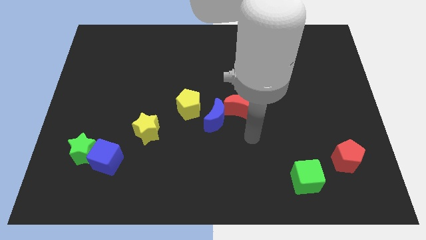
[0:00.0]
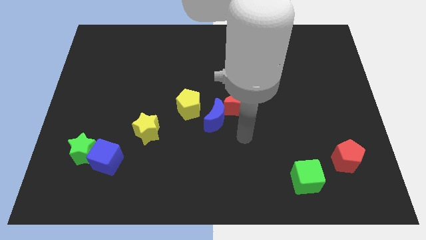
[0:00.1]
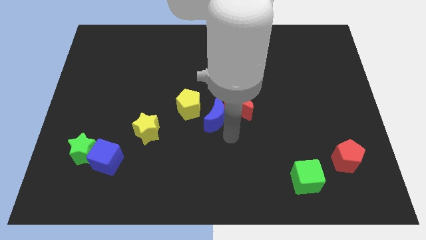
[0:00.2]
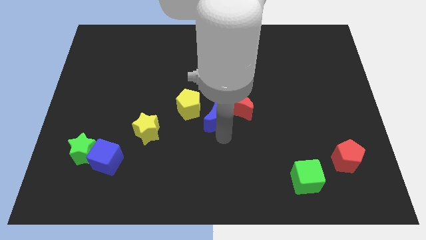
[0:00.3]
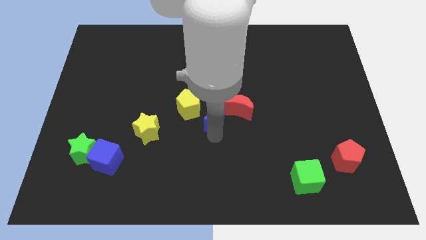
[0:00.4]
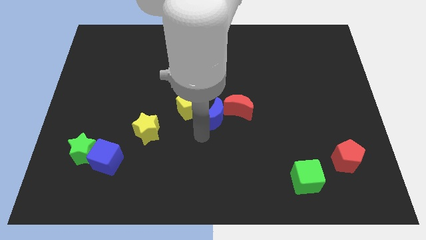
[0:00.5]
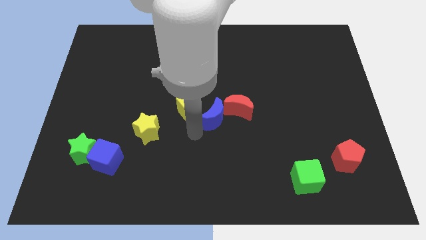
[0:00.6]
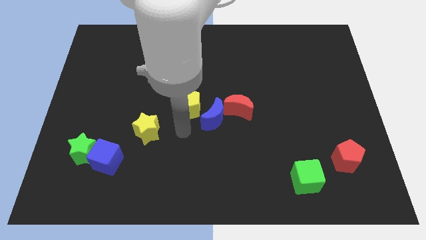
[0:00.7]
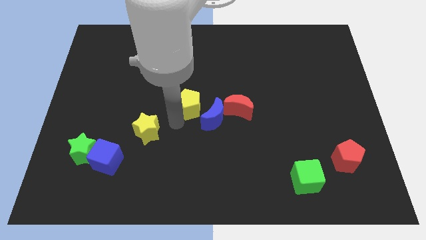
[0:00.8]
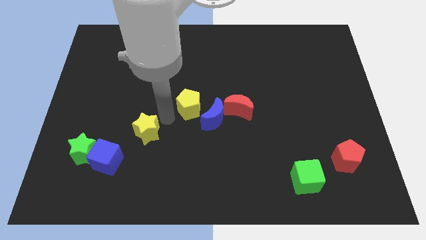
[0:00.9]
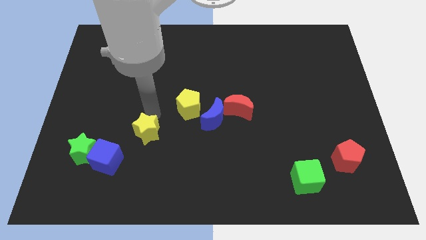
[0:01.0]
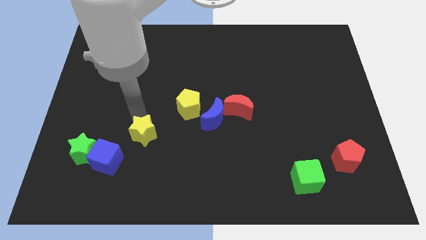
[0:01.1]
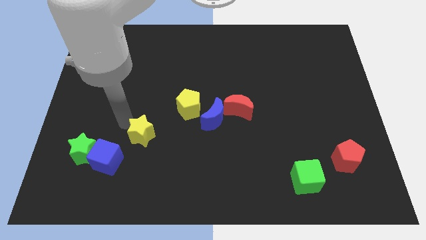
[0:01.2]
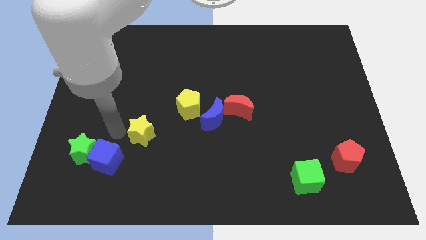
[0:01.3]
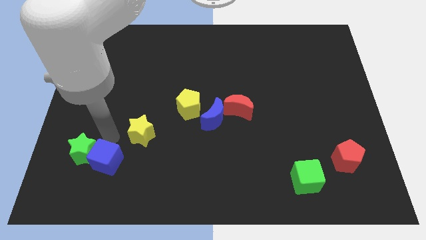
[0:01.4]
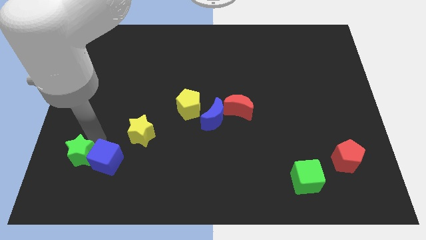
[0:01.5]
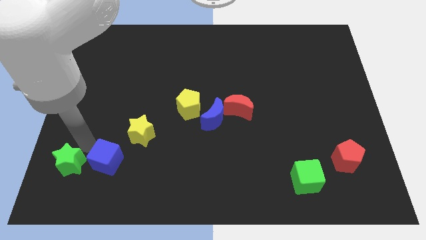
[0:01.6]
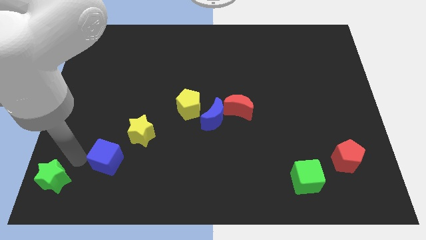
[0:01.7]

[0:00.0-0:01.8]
pull the blue cube apart from the green star

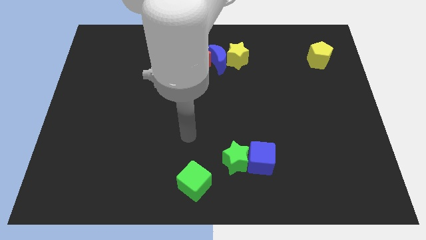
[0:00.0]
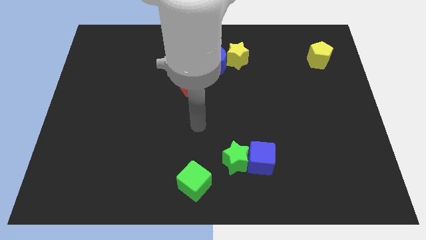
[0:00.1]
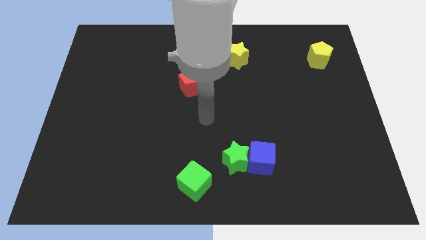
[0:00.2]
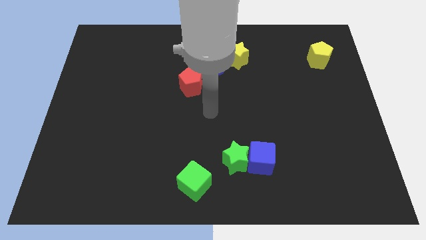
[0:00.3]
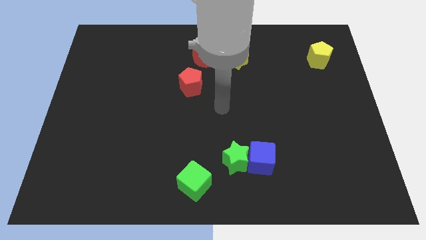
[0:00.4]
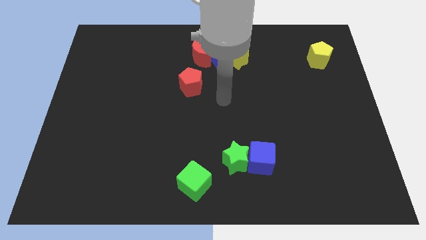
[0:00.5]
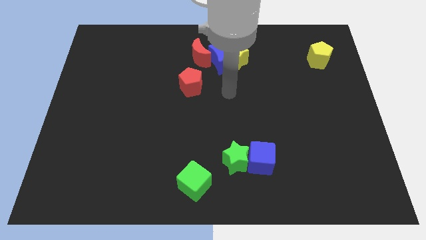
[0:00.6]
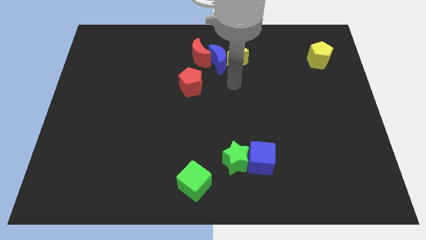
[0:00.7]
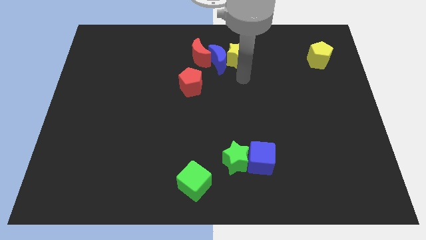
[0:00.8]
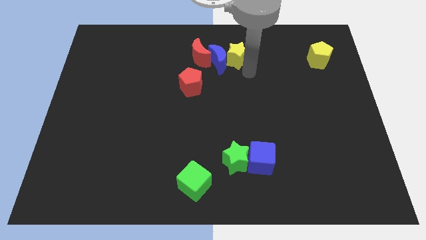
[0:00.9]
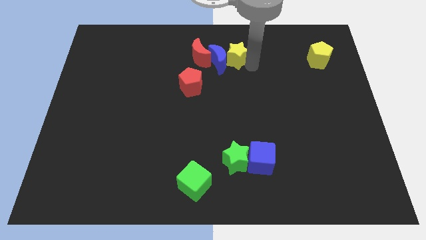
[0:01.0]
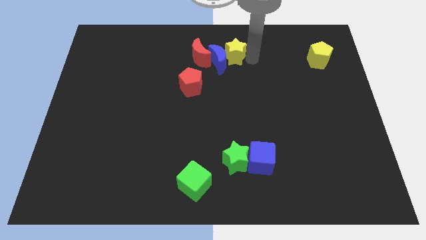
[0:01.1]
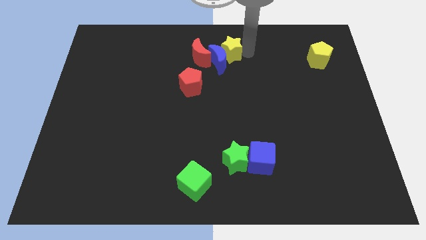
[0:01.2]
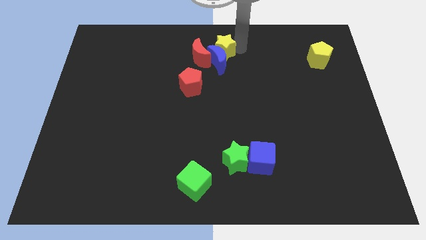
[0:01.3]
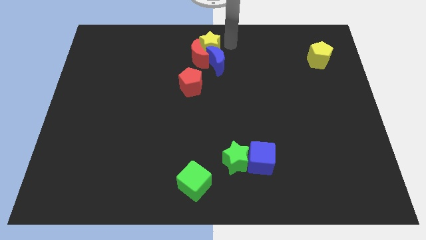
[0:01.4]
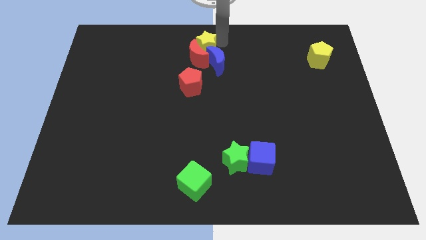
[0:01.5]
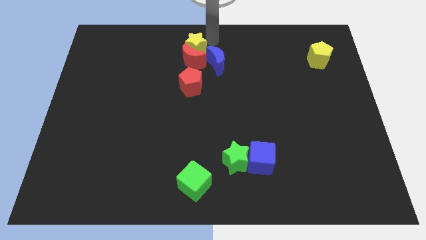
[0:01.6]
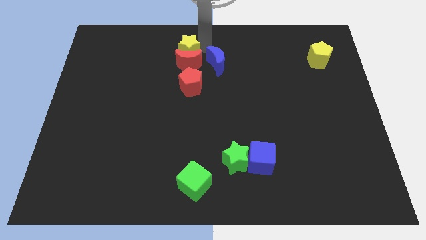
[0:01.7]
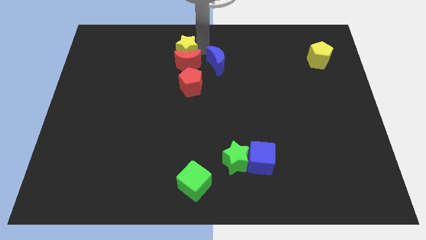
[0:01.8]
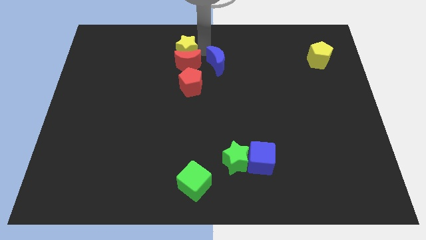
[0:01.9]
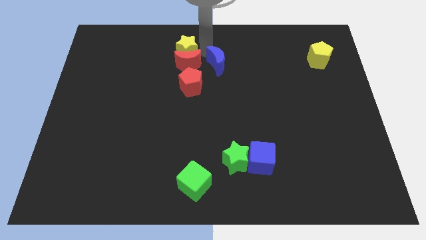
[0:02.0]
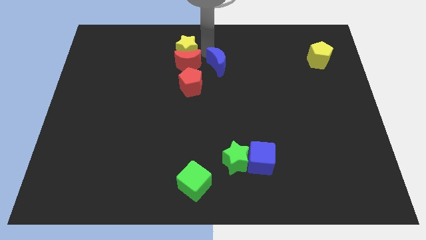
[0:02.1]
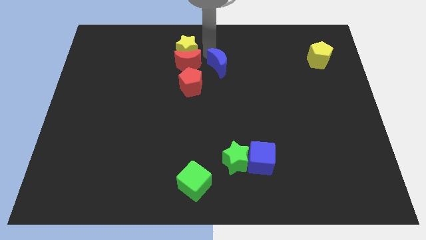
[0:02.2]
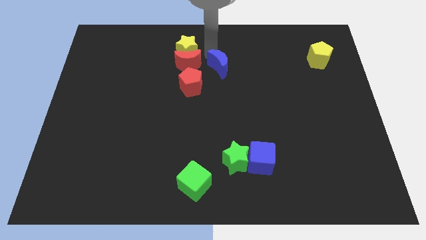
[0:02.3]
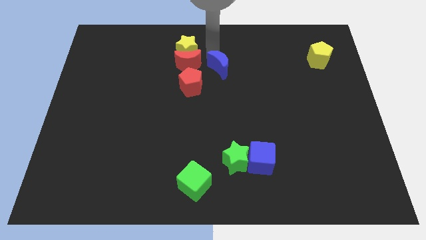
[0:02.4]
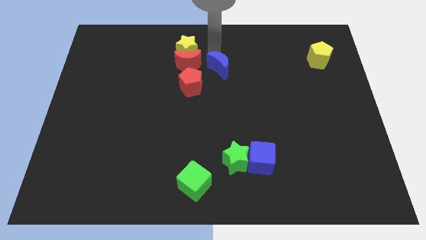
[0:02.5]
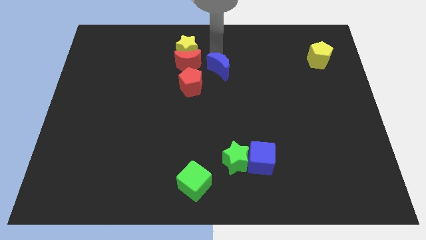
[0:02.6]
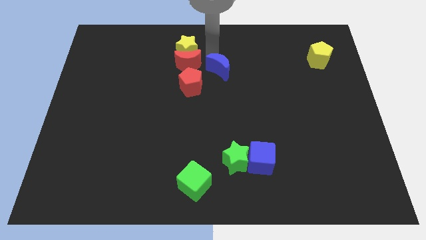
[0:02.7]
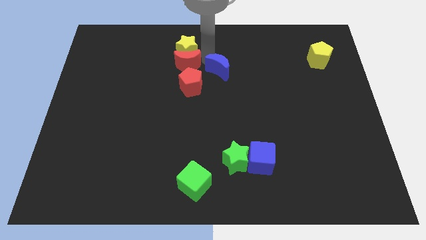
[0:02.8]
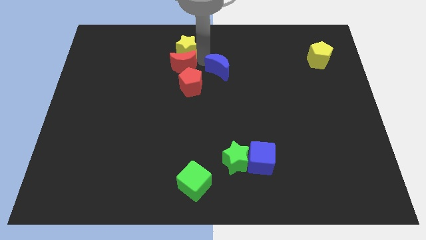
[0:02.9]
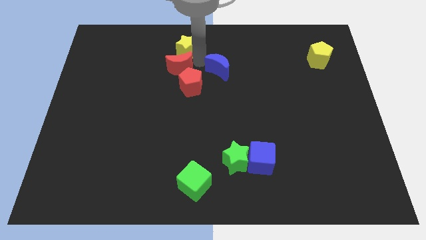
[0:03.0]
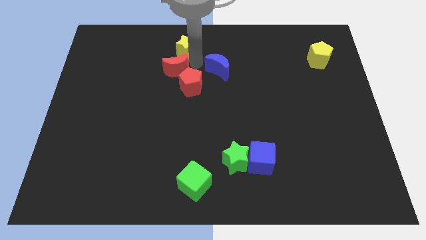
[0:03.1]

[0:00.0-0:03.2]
move the blue moon away from the yellow star and red moon

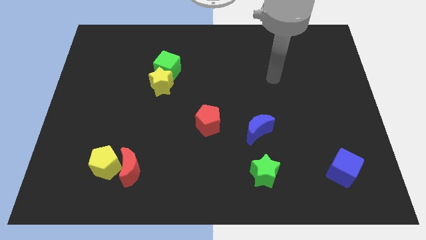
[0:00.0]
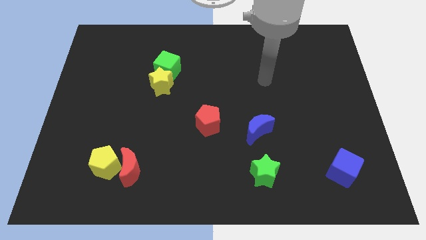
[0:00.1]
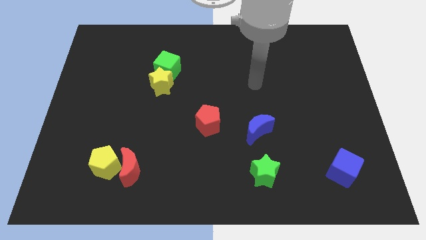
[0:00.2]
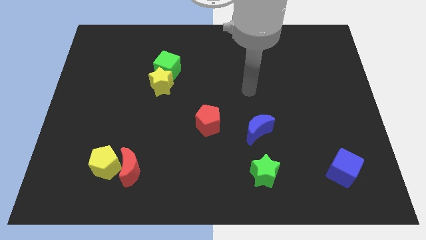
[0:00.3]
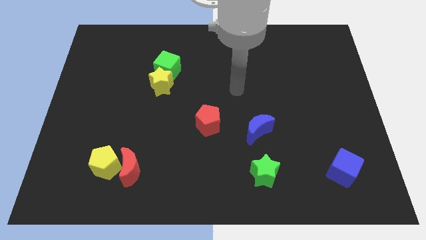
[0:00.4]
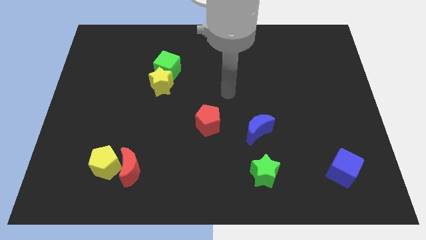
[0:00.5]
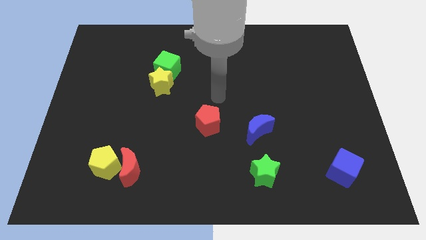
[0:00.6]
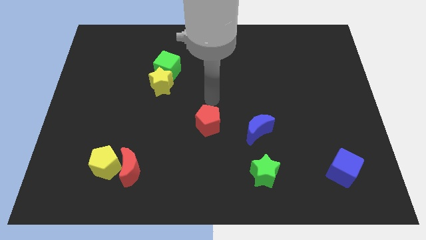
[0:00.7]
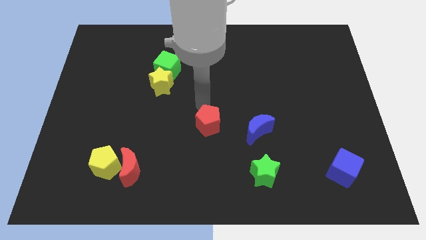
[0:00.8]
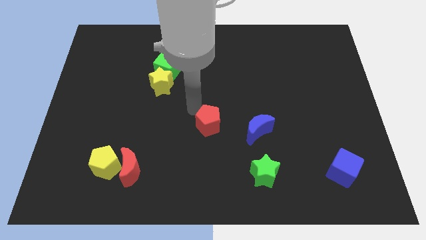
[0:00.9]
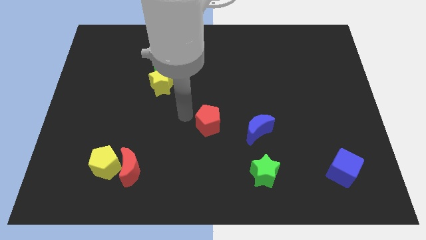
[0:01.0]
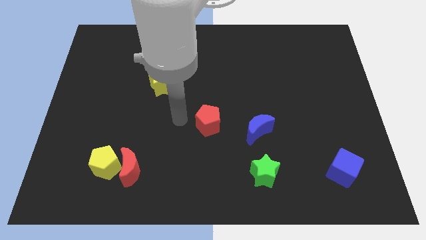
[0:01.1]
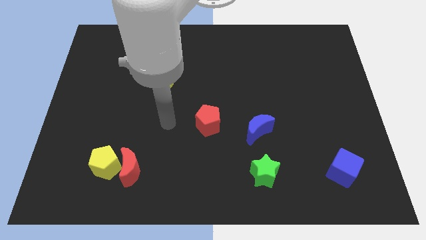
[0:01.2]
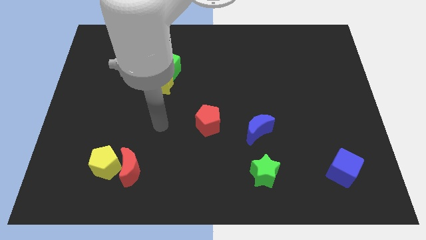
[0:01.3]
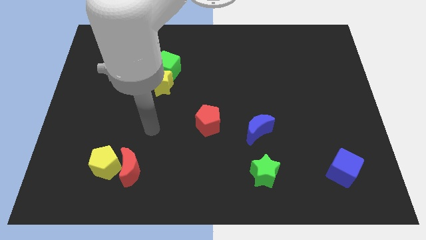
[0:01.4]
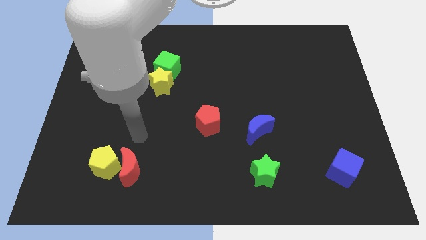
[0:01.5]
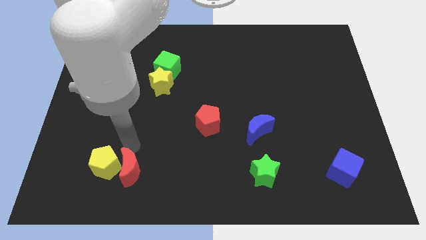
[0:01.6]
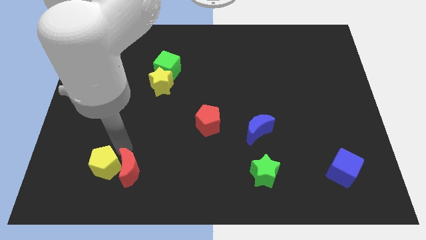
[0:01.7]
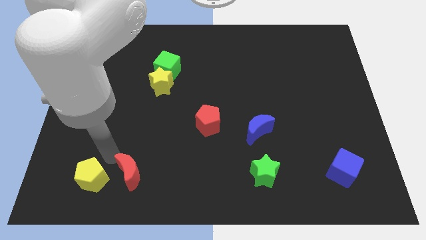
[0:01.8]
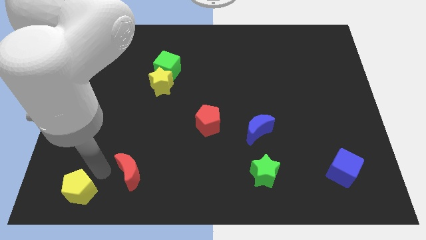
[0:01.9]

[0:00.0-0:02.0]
move the red moon away from the yellow pentagon

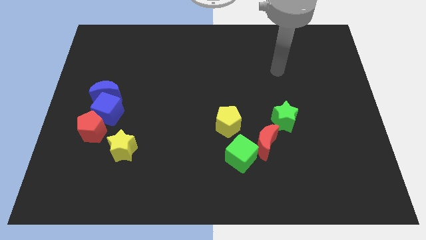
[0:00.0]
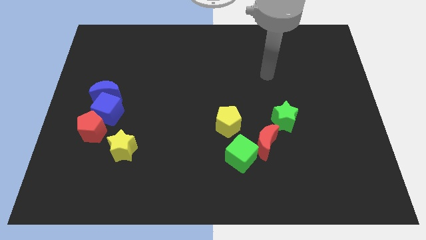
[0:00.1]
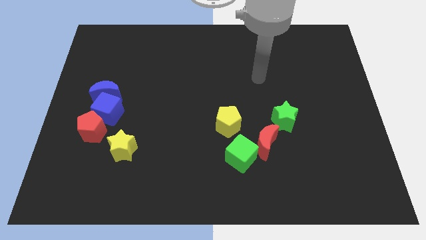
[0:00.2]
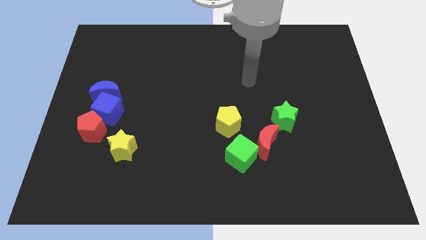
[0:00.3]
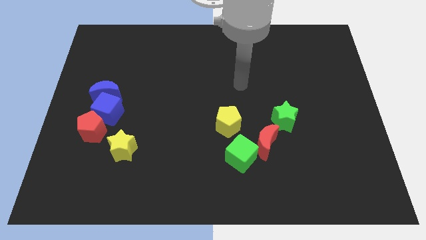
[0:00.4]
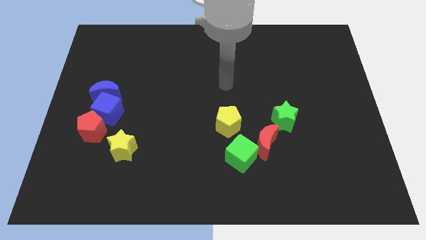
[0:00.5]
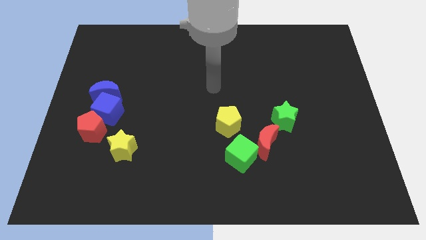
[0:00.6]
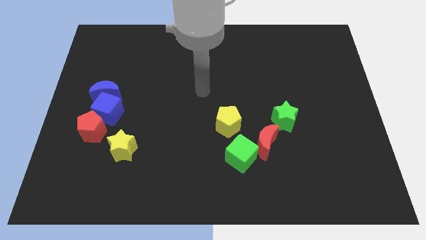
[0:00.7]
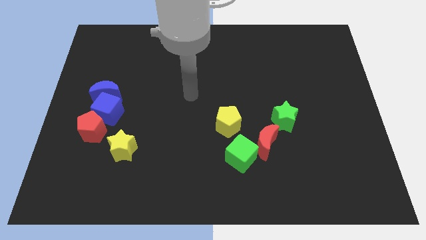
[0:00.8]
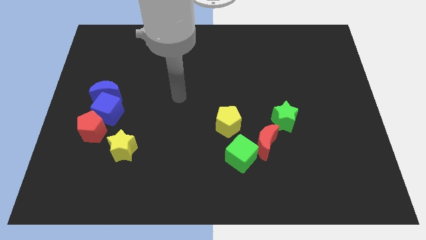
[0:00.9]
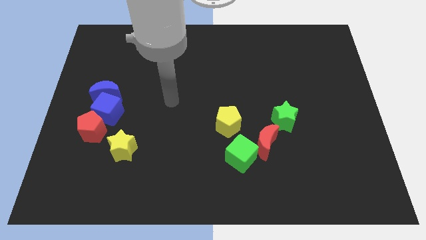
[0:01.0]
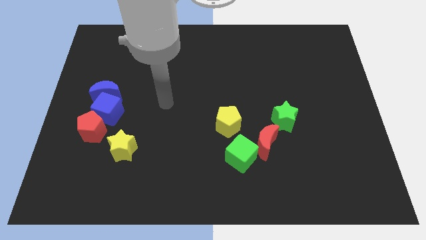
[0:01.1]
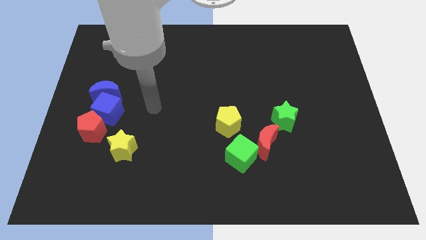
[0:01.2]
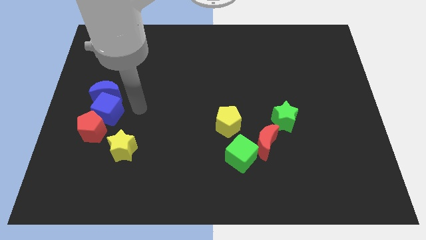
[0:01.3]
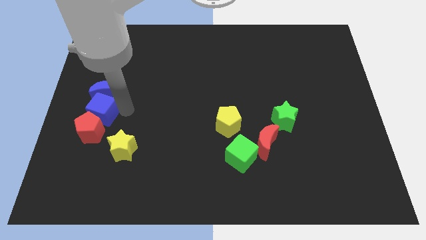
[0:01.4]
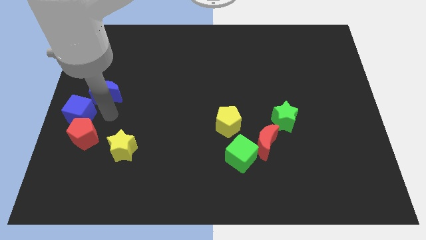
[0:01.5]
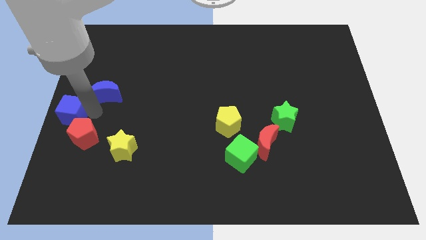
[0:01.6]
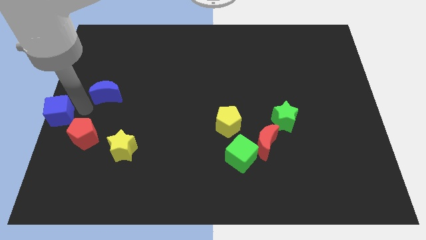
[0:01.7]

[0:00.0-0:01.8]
separate the blue moon from the blue cube

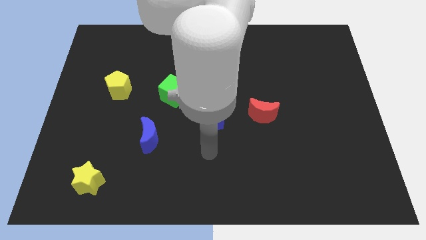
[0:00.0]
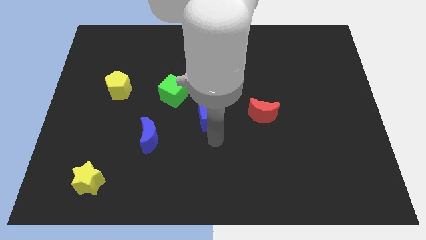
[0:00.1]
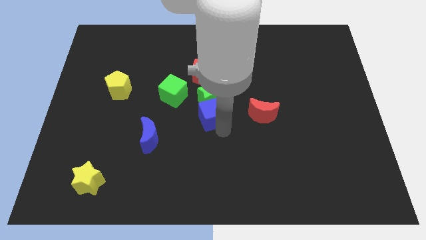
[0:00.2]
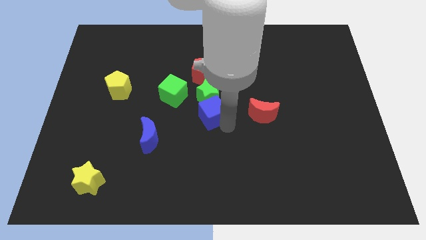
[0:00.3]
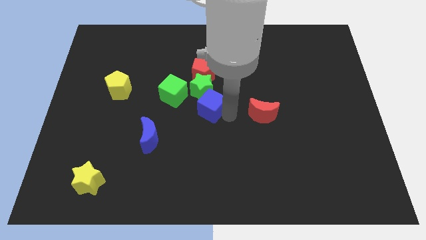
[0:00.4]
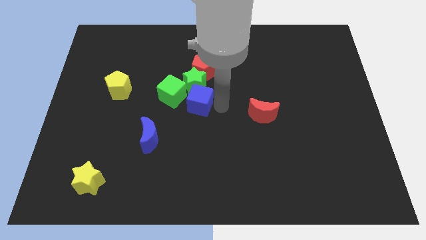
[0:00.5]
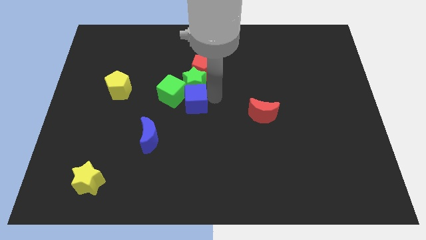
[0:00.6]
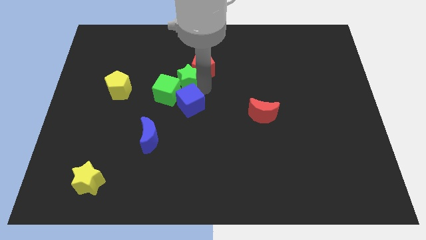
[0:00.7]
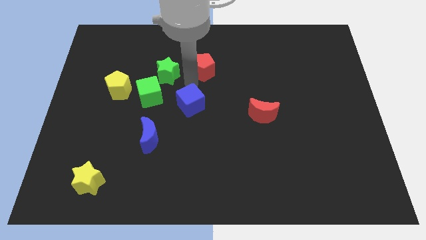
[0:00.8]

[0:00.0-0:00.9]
move the blue cube away from the green star
